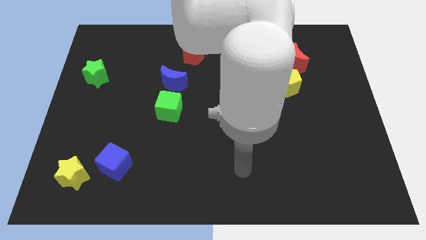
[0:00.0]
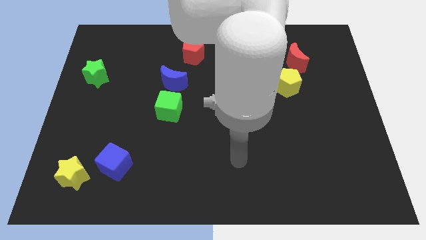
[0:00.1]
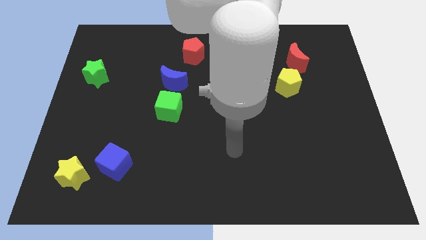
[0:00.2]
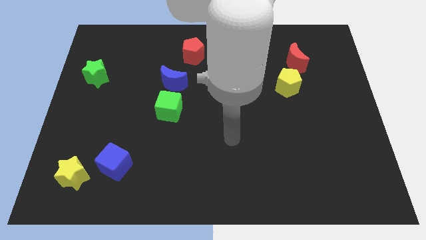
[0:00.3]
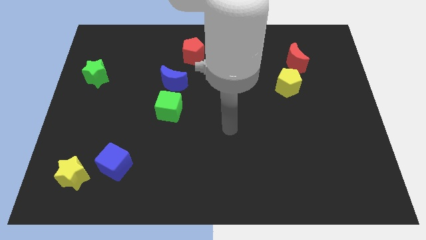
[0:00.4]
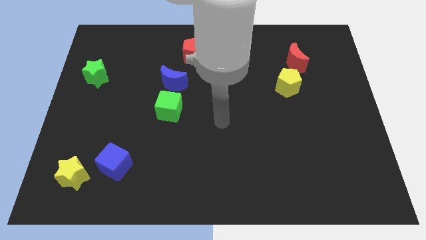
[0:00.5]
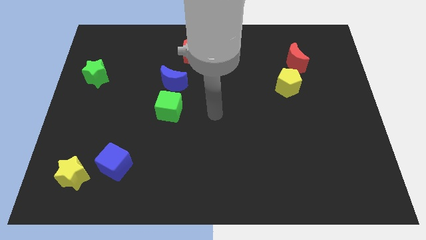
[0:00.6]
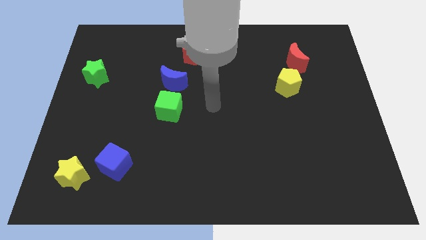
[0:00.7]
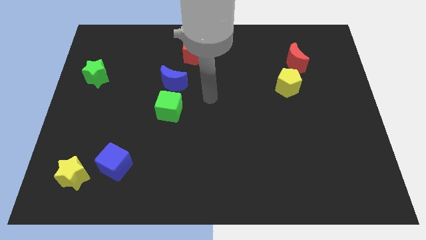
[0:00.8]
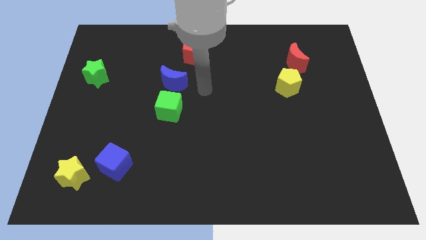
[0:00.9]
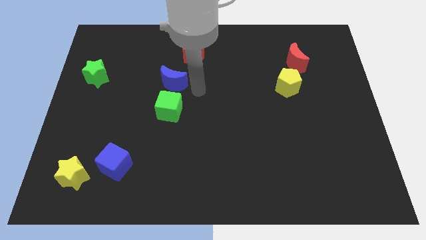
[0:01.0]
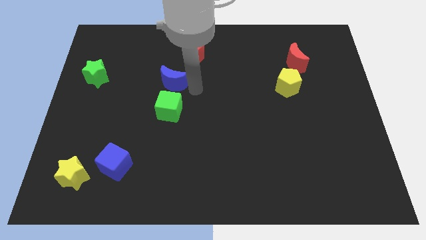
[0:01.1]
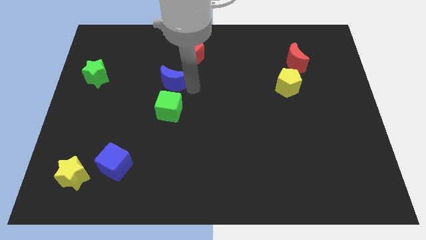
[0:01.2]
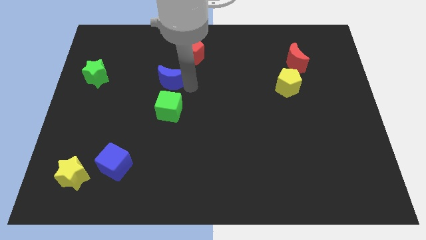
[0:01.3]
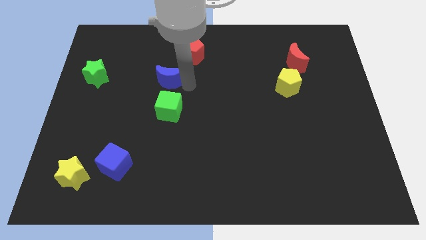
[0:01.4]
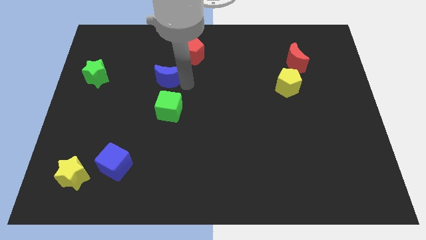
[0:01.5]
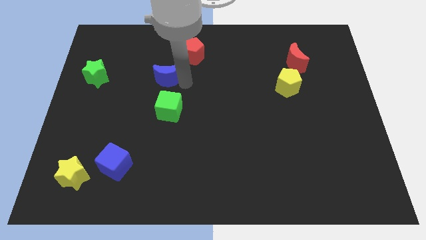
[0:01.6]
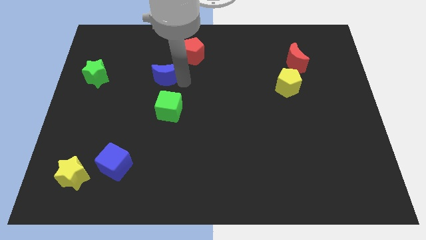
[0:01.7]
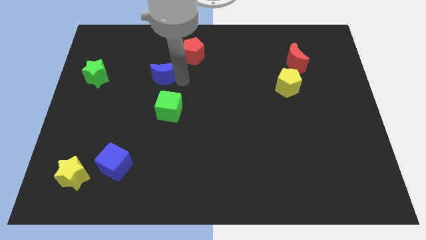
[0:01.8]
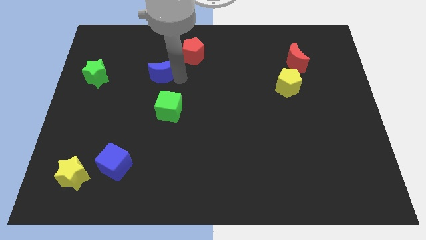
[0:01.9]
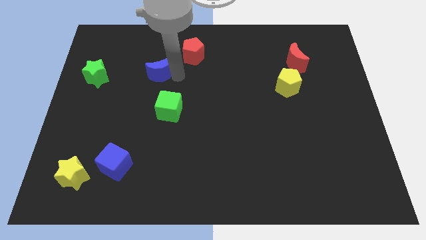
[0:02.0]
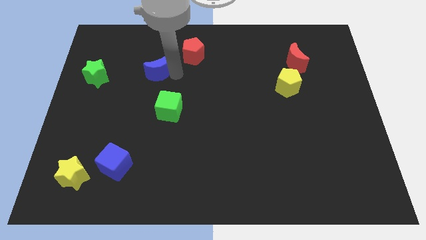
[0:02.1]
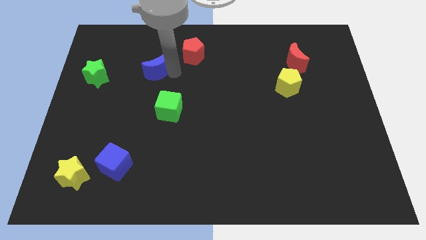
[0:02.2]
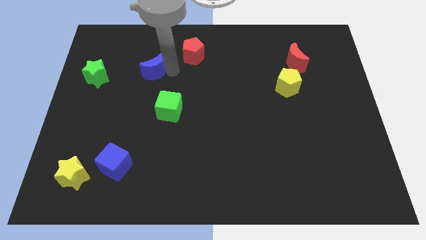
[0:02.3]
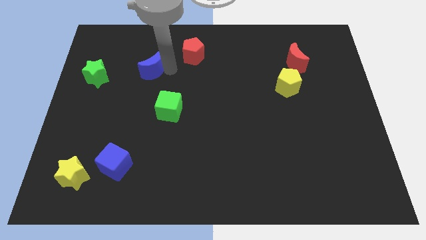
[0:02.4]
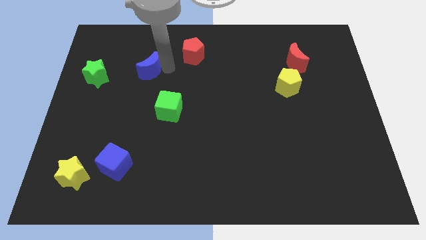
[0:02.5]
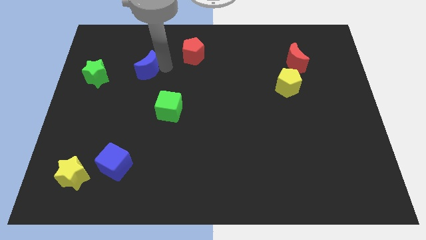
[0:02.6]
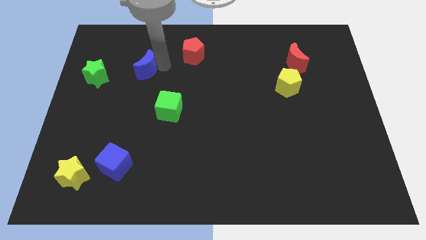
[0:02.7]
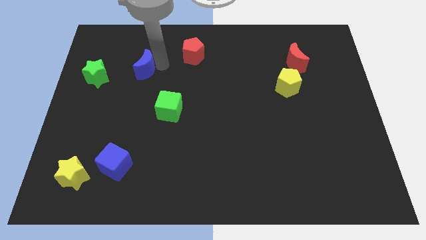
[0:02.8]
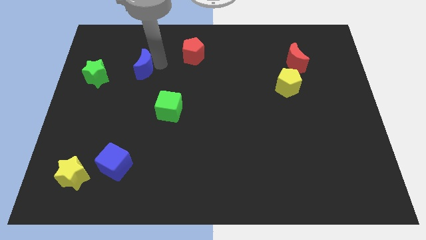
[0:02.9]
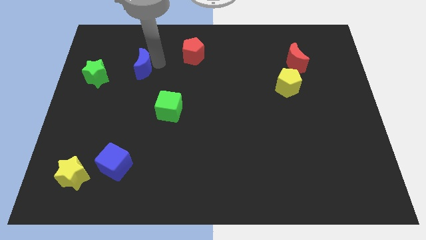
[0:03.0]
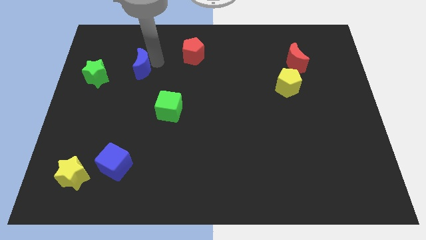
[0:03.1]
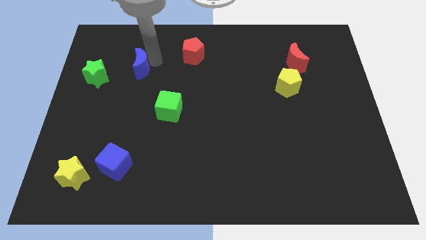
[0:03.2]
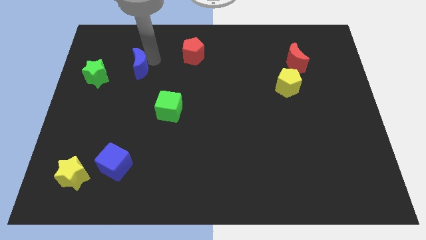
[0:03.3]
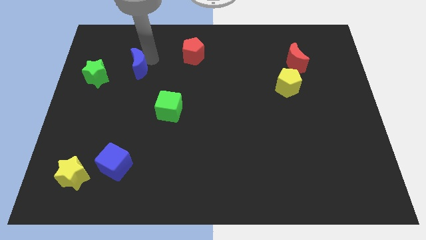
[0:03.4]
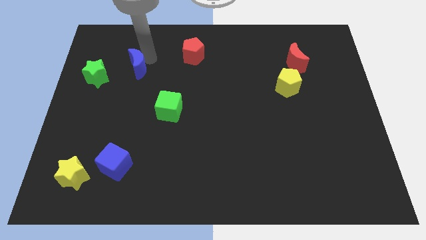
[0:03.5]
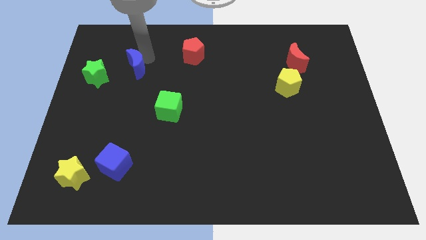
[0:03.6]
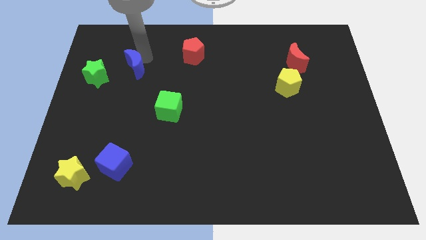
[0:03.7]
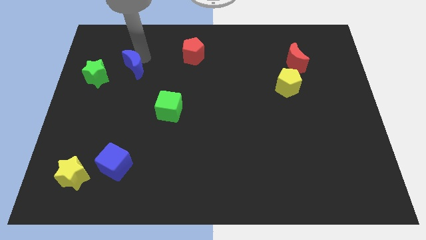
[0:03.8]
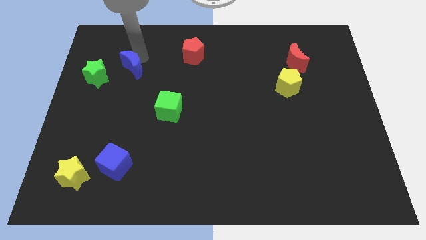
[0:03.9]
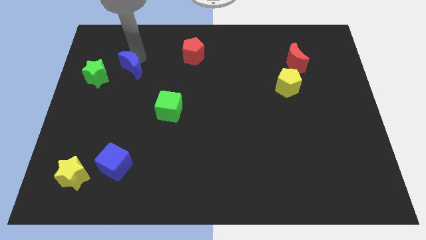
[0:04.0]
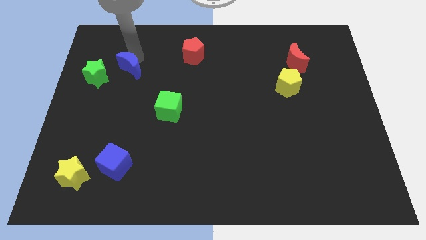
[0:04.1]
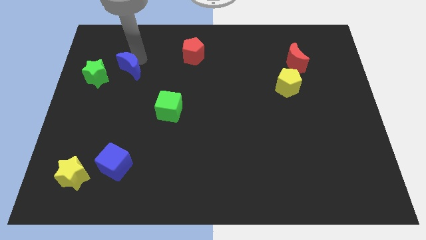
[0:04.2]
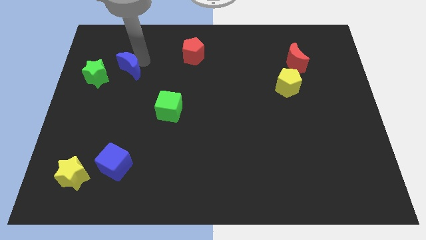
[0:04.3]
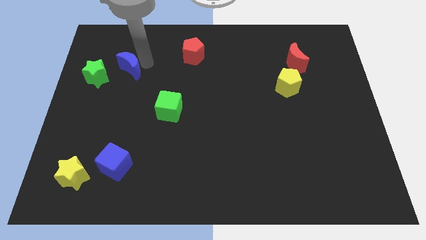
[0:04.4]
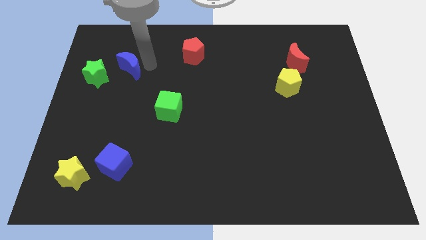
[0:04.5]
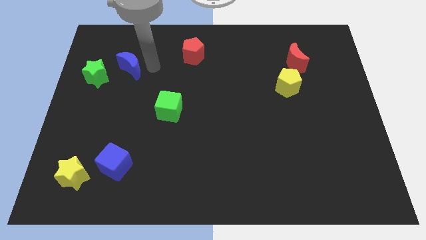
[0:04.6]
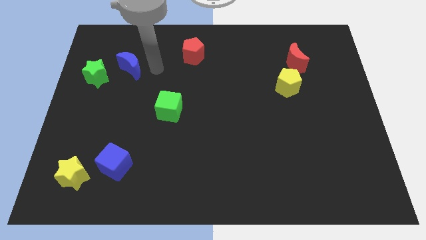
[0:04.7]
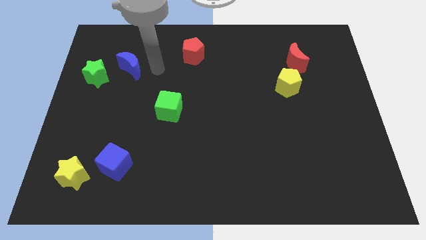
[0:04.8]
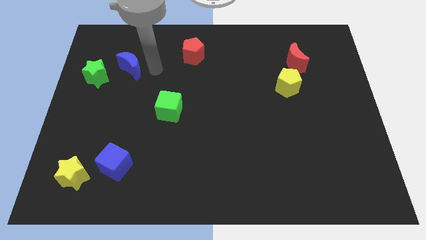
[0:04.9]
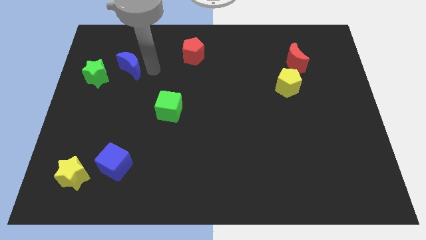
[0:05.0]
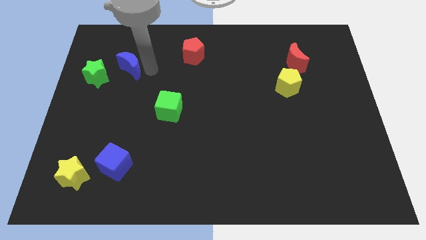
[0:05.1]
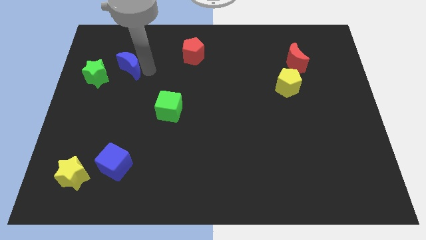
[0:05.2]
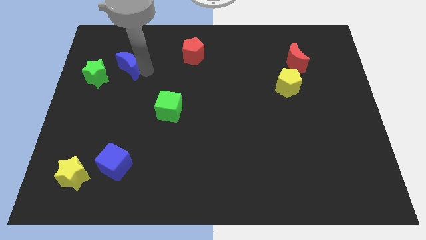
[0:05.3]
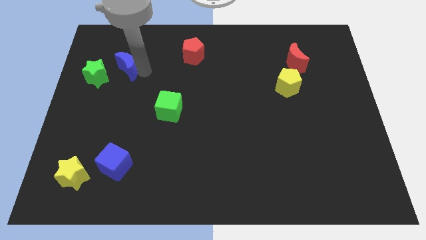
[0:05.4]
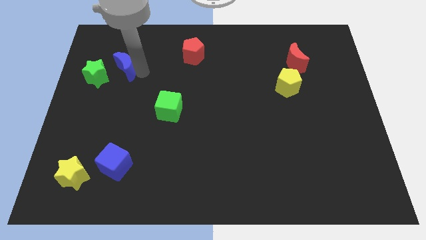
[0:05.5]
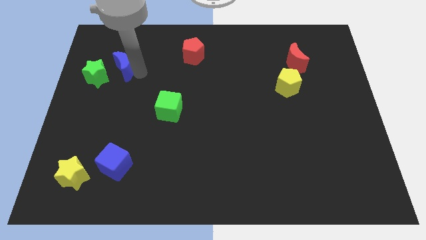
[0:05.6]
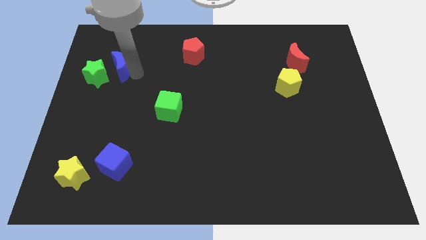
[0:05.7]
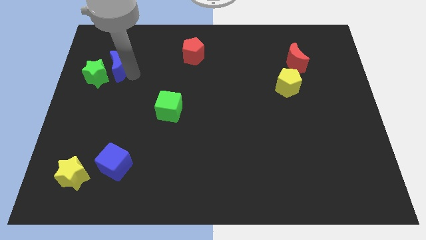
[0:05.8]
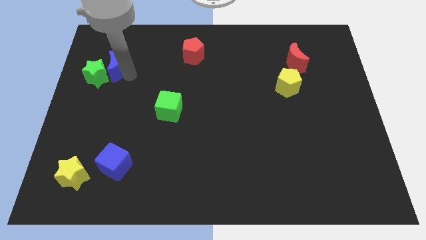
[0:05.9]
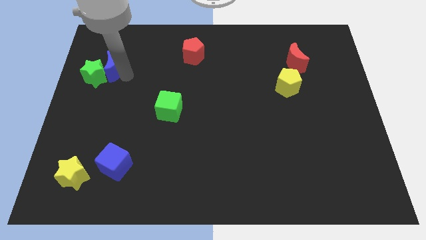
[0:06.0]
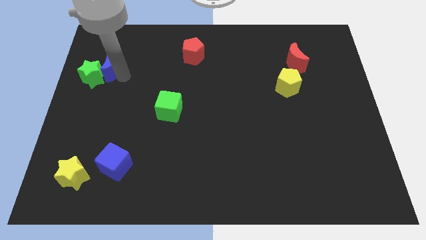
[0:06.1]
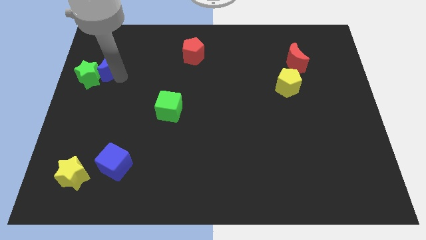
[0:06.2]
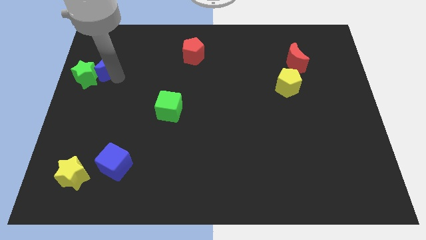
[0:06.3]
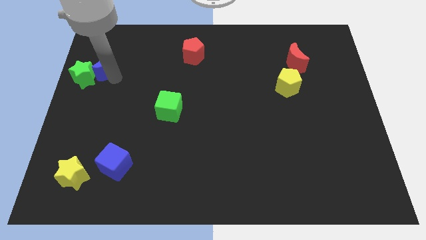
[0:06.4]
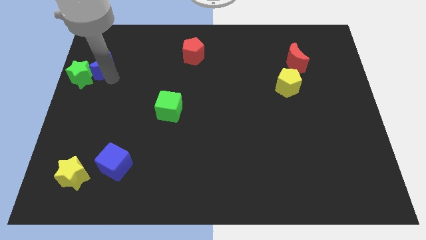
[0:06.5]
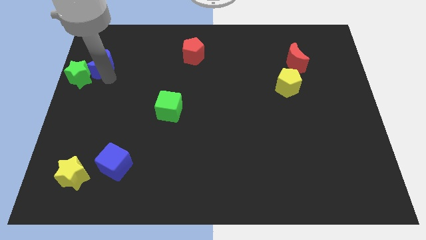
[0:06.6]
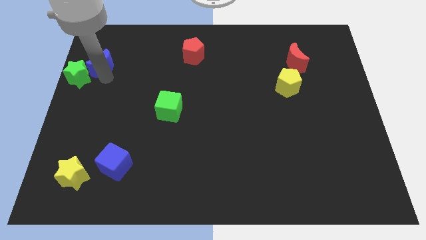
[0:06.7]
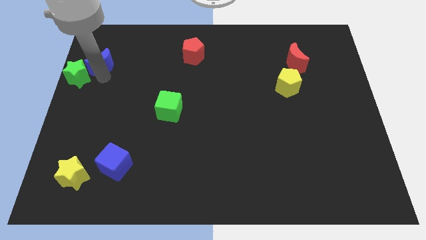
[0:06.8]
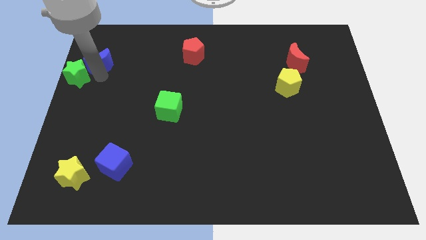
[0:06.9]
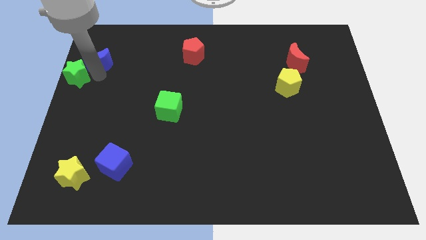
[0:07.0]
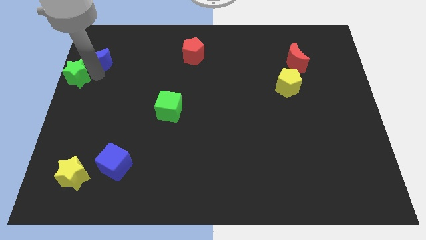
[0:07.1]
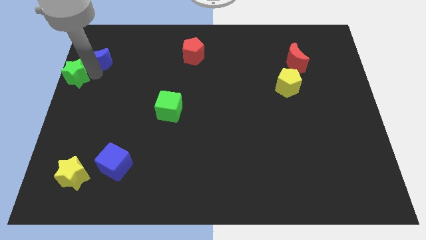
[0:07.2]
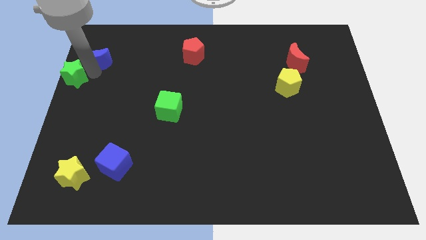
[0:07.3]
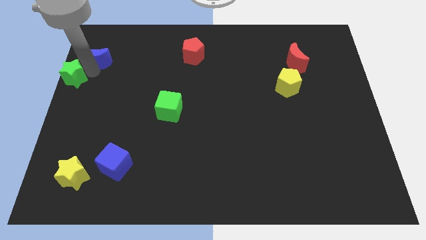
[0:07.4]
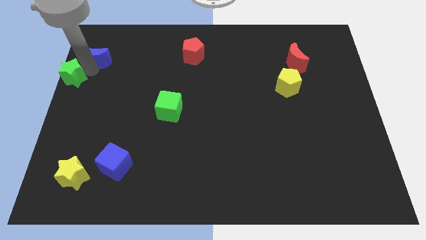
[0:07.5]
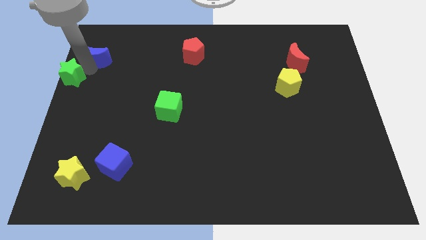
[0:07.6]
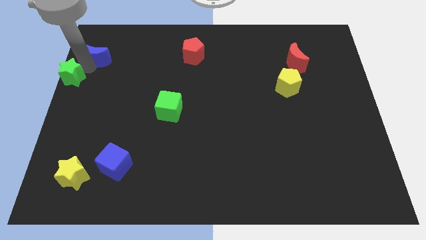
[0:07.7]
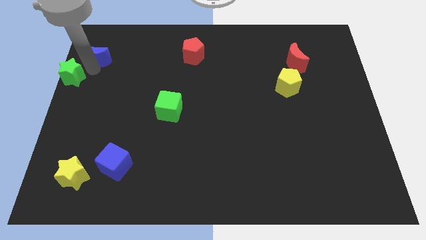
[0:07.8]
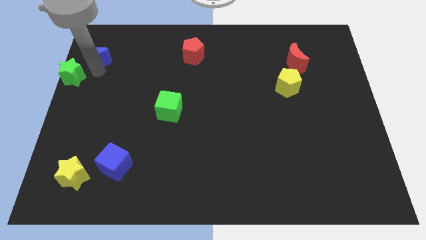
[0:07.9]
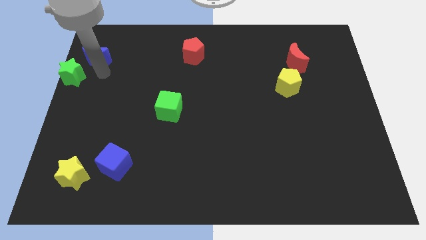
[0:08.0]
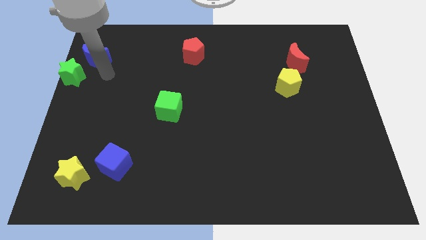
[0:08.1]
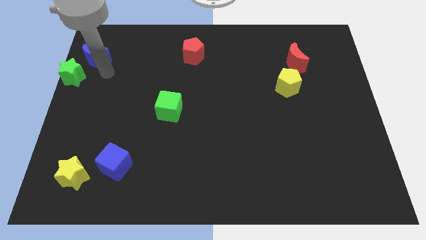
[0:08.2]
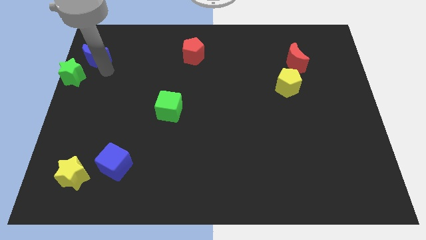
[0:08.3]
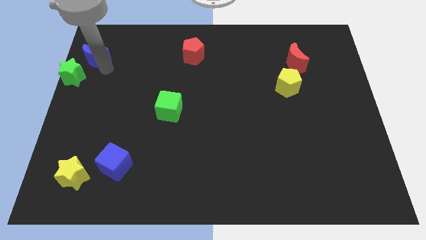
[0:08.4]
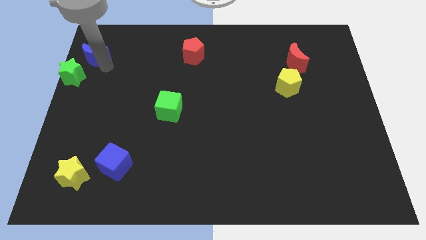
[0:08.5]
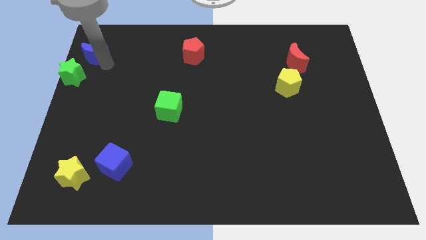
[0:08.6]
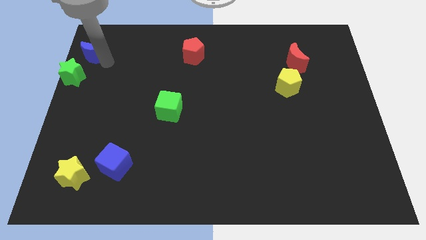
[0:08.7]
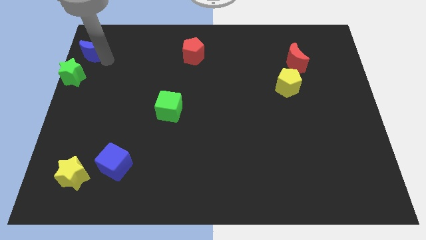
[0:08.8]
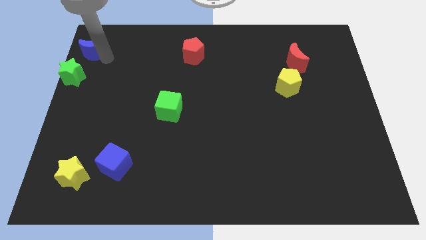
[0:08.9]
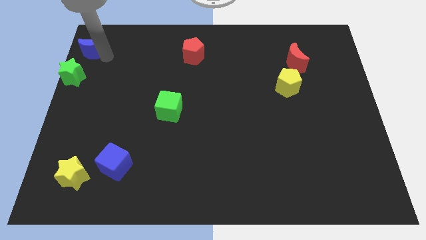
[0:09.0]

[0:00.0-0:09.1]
slide the blue moon to the top left of the board
